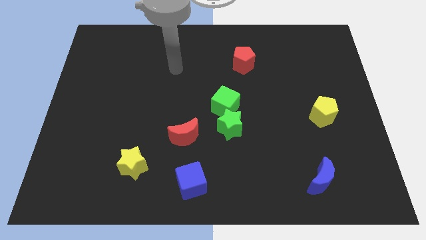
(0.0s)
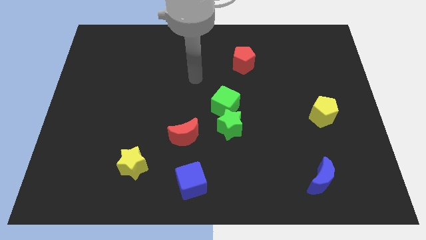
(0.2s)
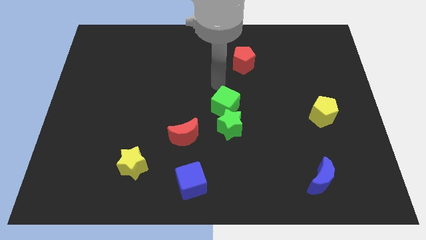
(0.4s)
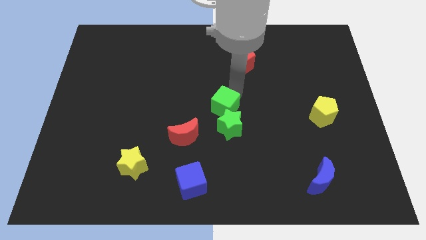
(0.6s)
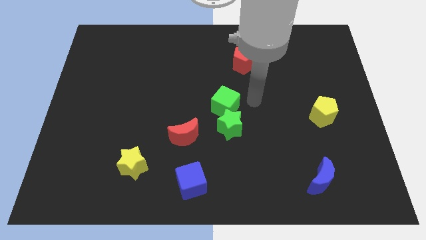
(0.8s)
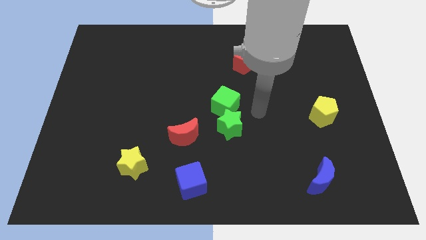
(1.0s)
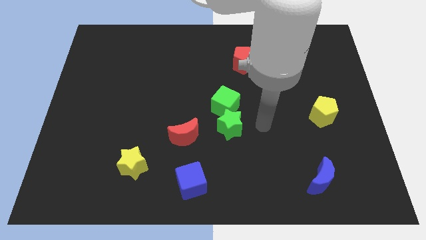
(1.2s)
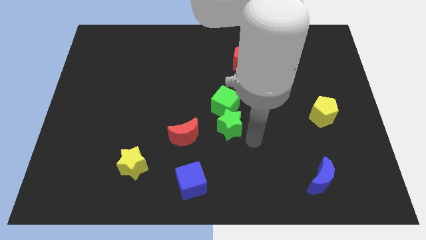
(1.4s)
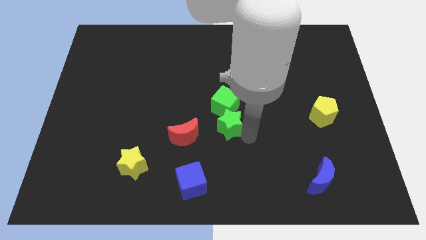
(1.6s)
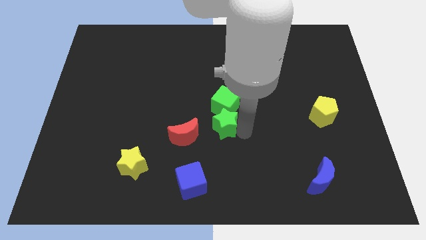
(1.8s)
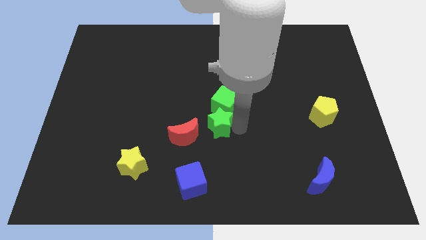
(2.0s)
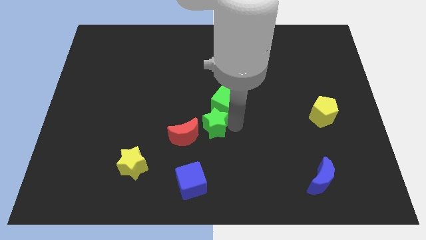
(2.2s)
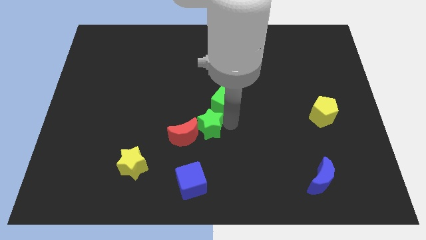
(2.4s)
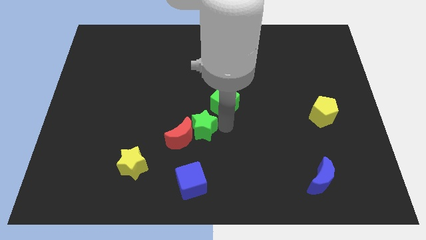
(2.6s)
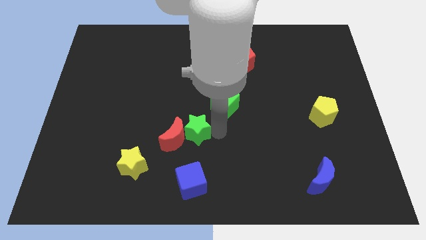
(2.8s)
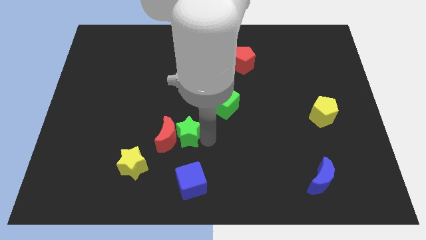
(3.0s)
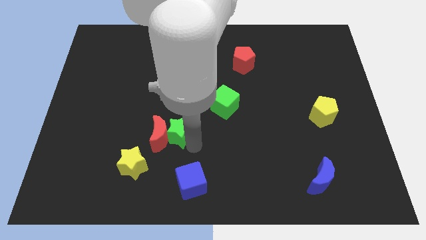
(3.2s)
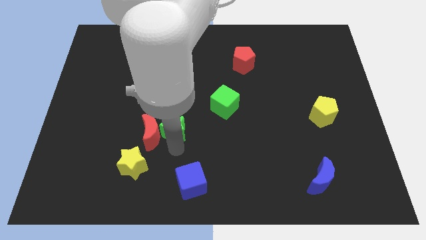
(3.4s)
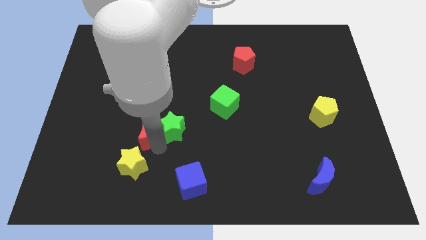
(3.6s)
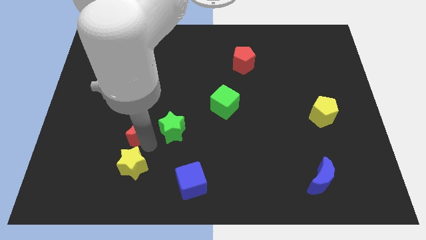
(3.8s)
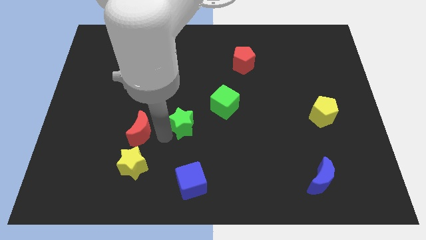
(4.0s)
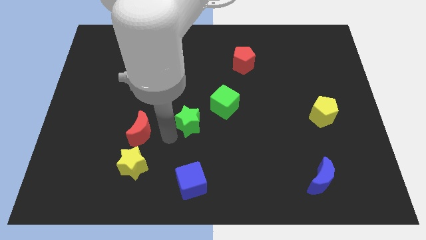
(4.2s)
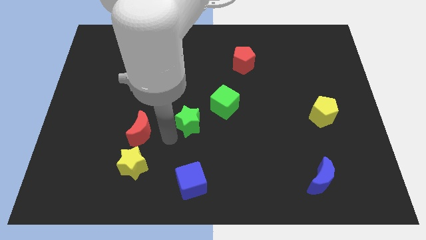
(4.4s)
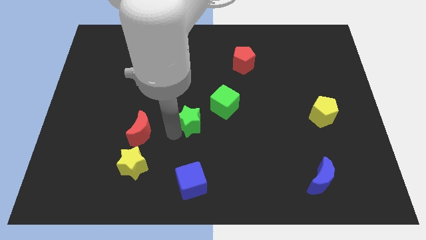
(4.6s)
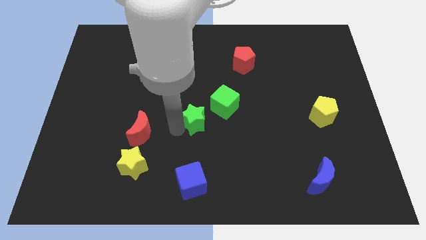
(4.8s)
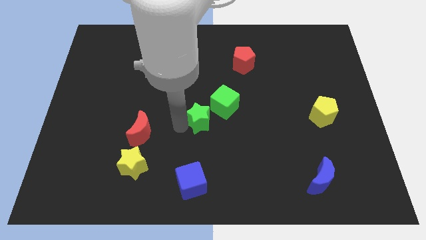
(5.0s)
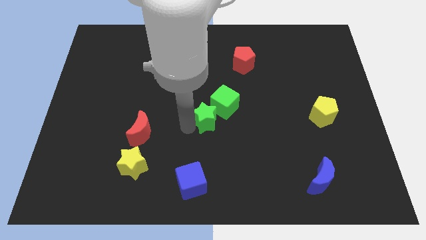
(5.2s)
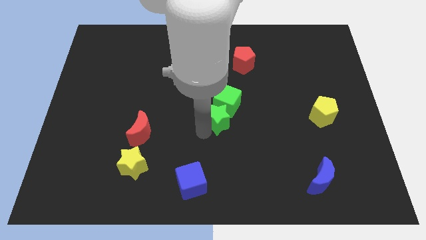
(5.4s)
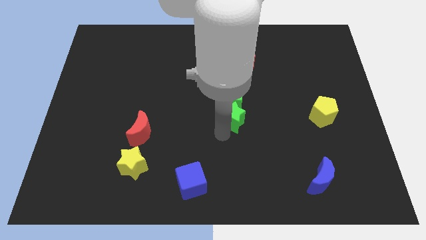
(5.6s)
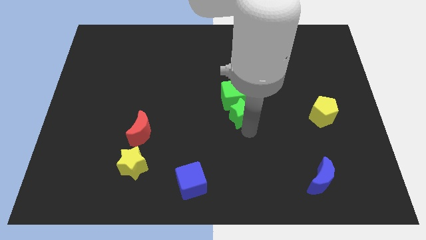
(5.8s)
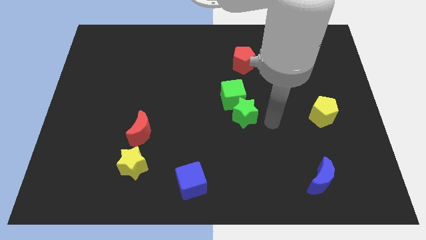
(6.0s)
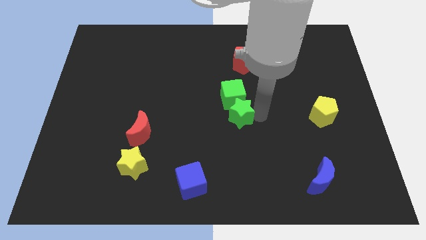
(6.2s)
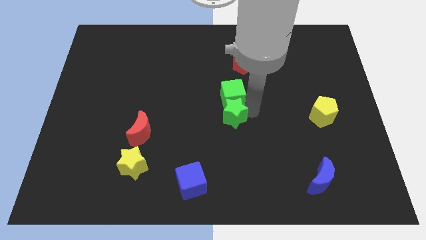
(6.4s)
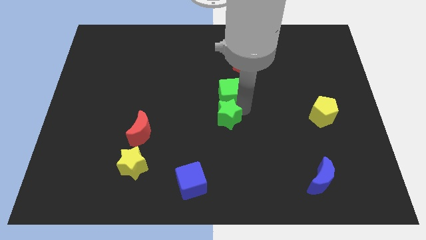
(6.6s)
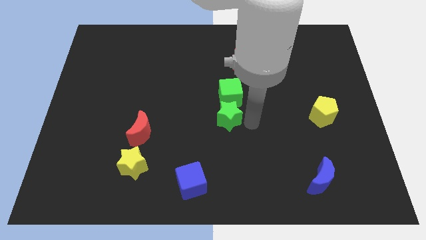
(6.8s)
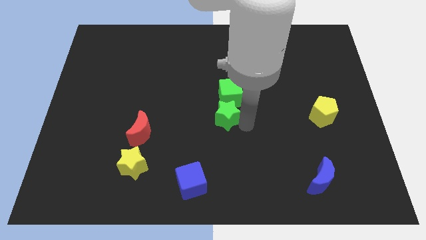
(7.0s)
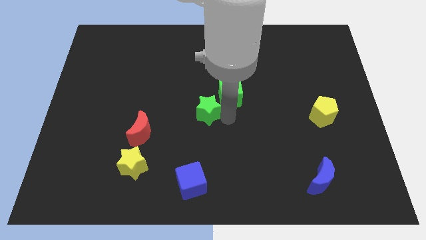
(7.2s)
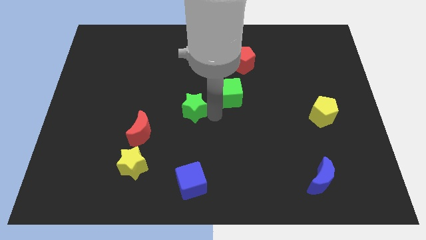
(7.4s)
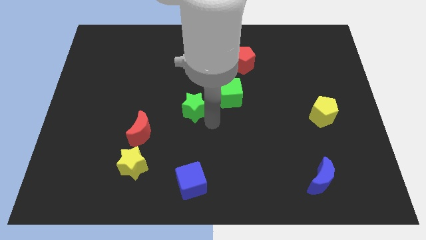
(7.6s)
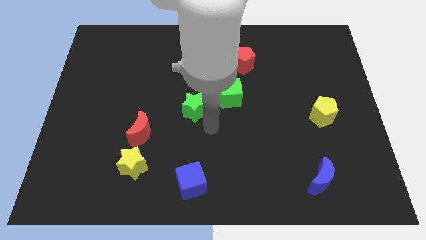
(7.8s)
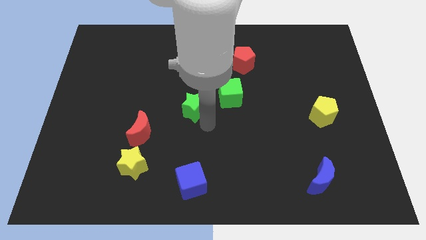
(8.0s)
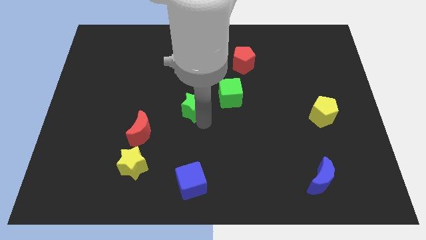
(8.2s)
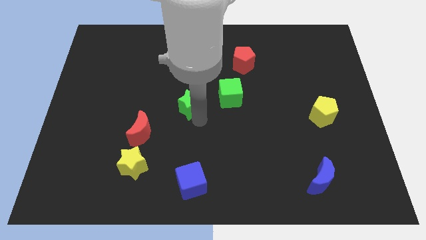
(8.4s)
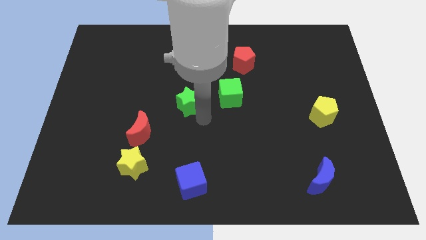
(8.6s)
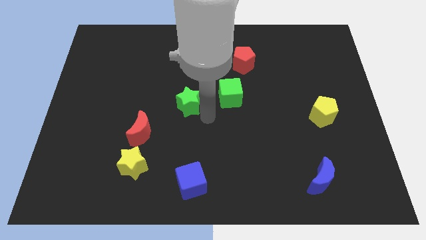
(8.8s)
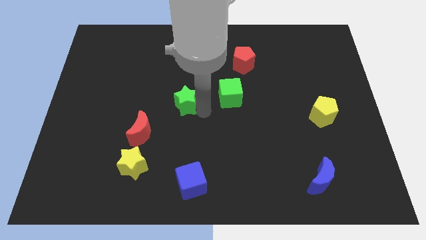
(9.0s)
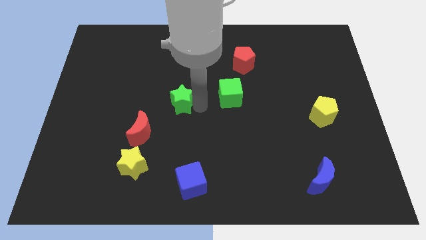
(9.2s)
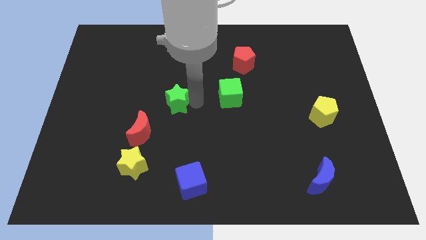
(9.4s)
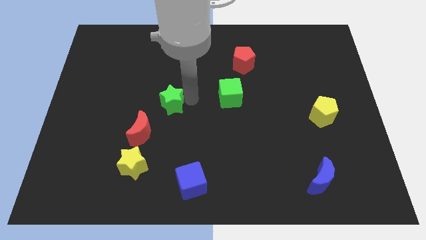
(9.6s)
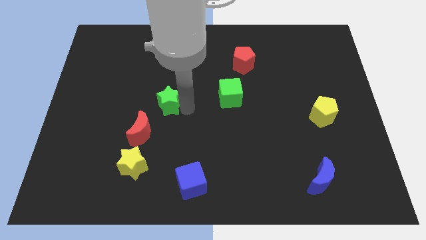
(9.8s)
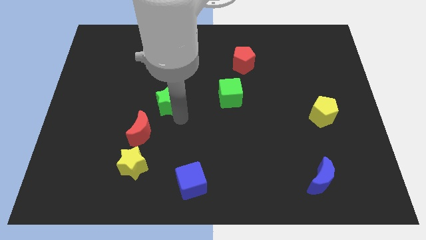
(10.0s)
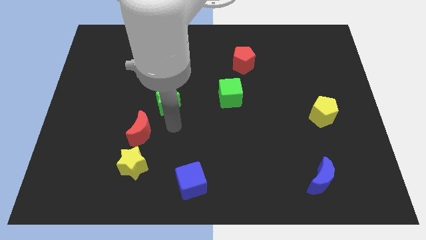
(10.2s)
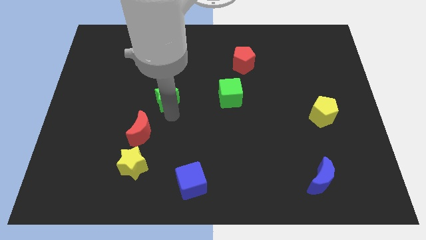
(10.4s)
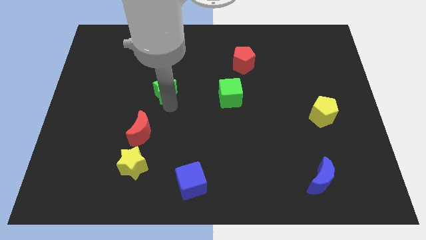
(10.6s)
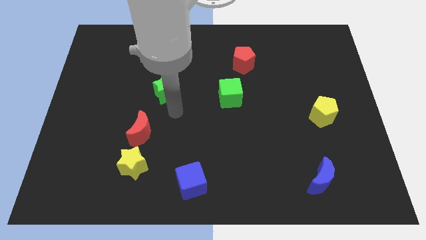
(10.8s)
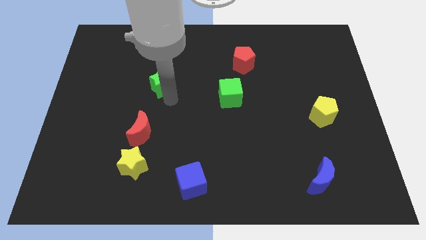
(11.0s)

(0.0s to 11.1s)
slide the green star upwards and to the left diagonally

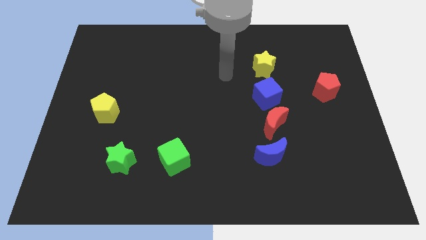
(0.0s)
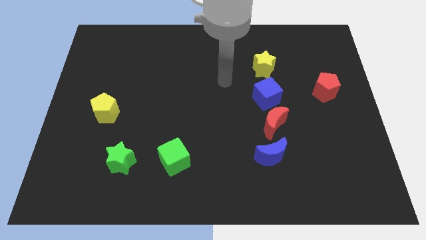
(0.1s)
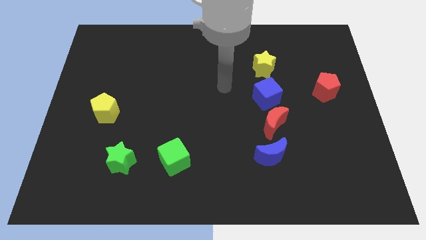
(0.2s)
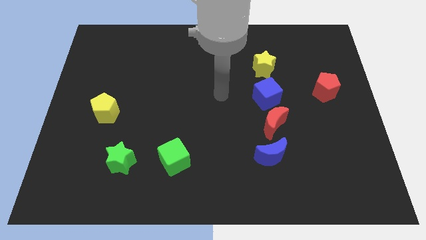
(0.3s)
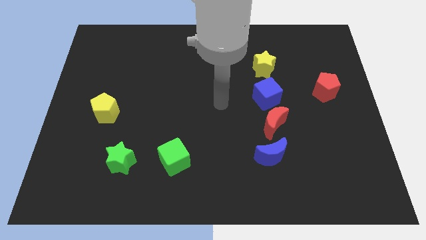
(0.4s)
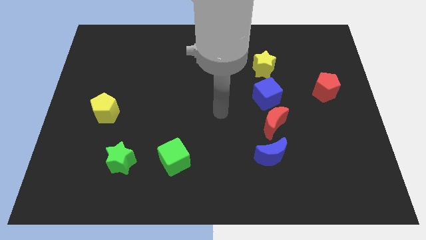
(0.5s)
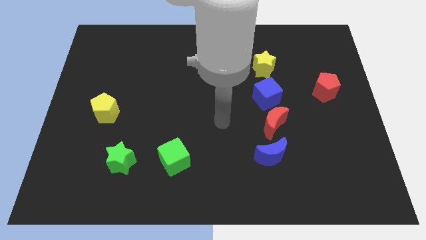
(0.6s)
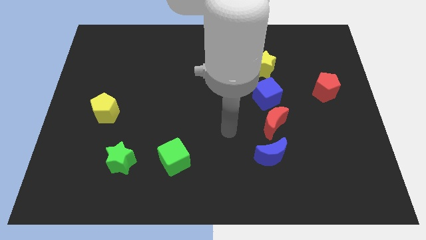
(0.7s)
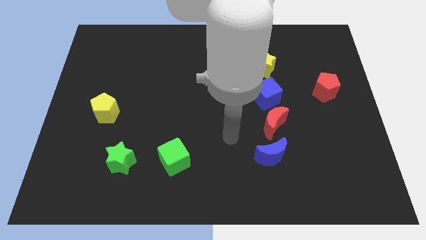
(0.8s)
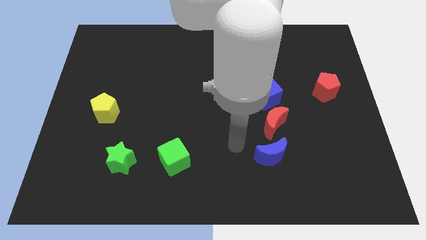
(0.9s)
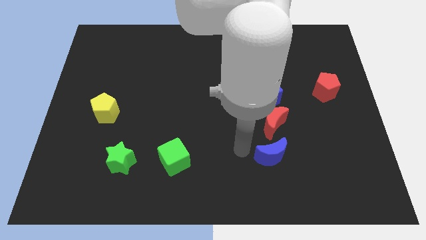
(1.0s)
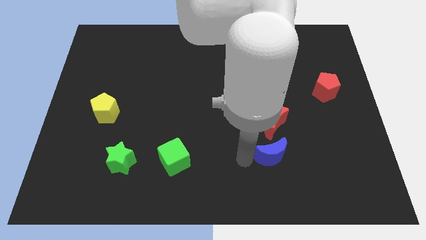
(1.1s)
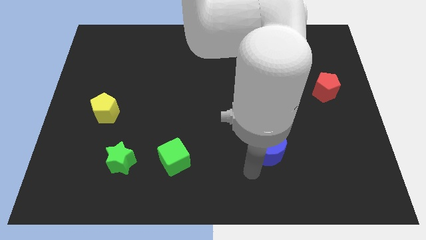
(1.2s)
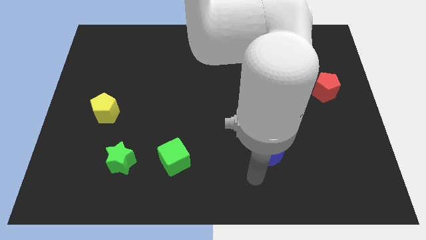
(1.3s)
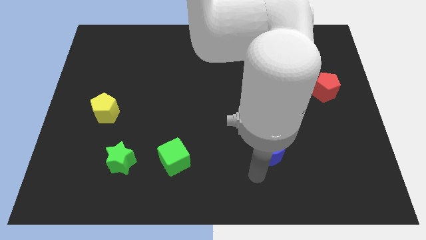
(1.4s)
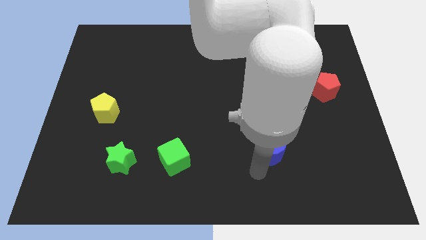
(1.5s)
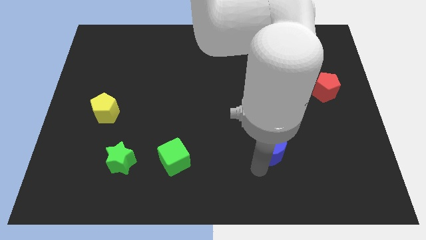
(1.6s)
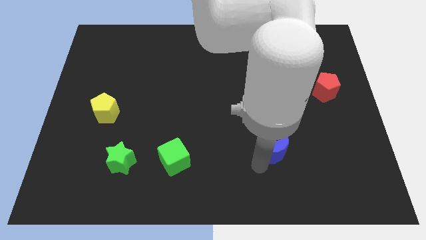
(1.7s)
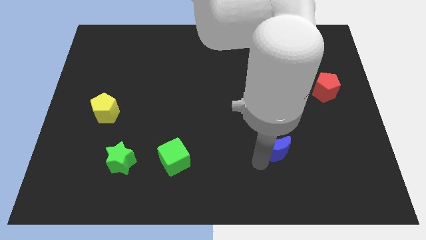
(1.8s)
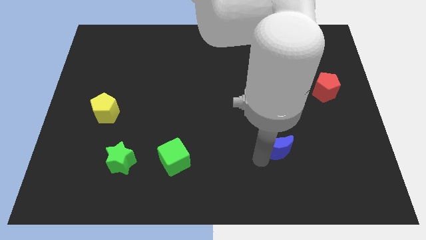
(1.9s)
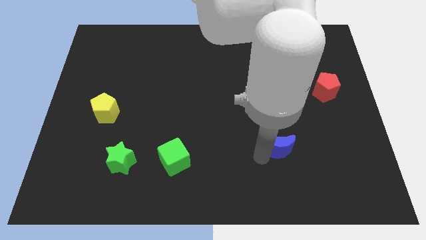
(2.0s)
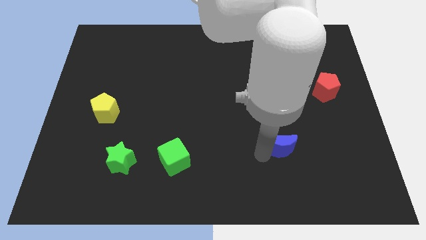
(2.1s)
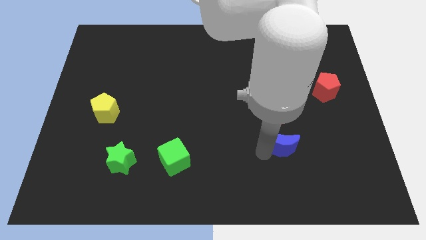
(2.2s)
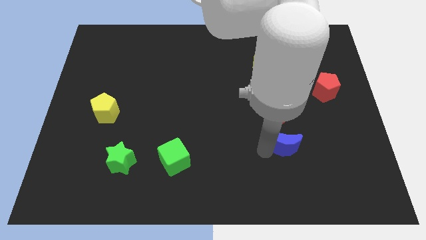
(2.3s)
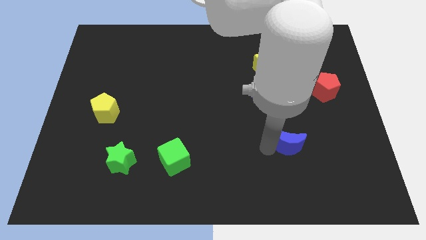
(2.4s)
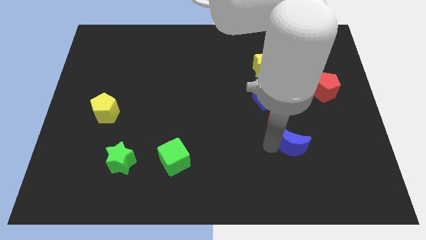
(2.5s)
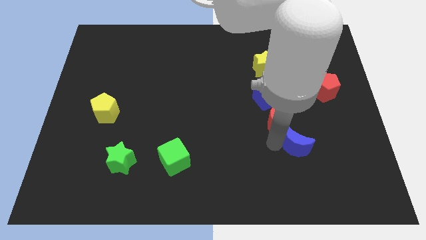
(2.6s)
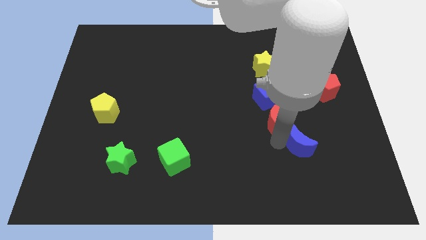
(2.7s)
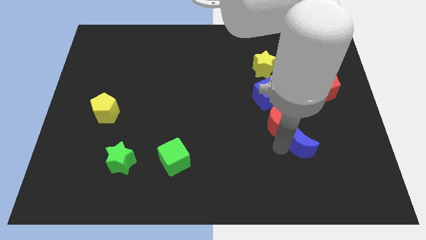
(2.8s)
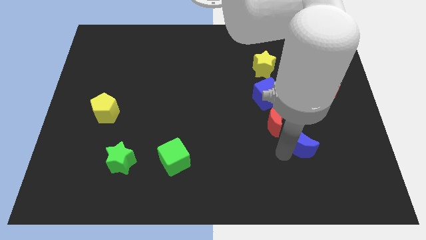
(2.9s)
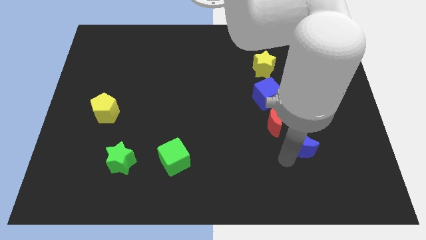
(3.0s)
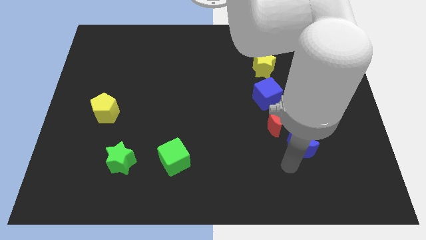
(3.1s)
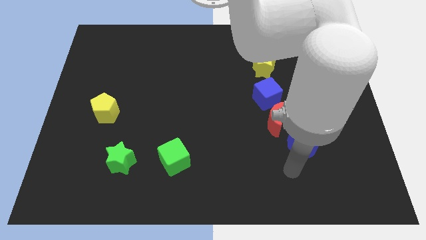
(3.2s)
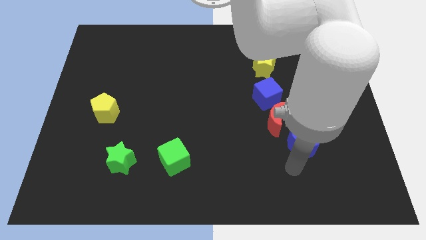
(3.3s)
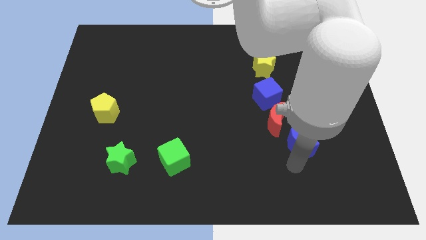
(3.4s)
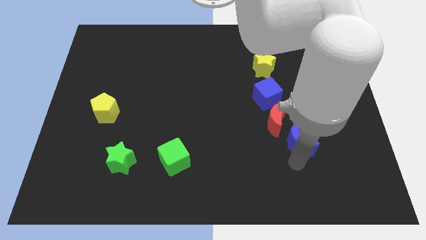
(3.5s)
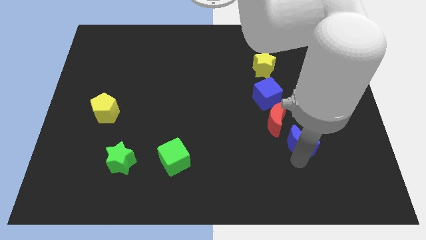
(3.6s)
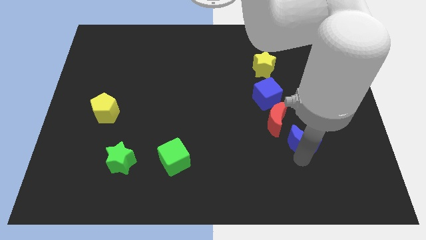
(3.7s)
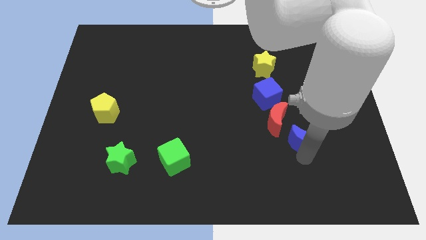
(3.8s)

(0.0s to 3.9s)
push the blue moon up and to the right diagonally a bit
